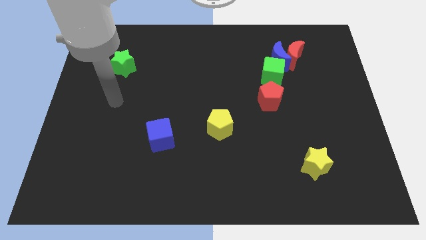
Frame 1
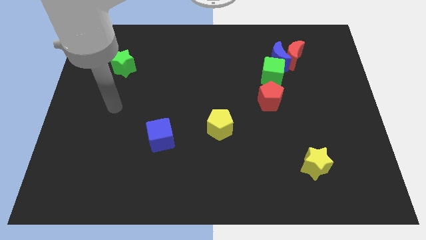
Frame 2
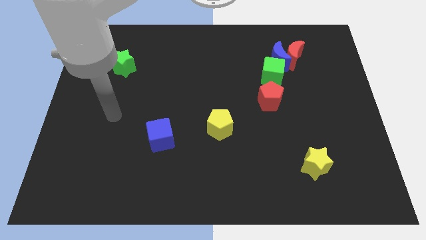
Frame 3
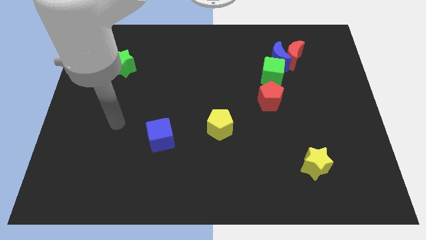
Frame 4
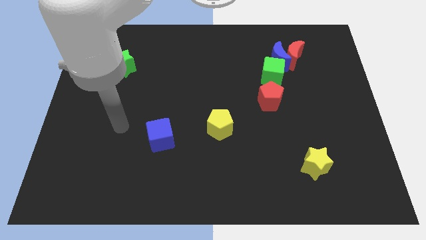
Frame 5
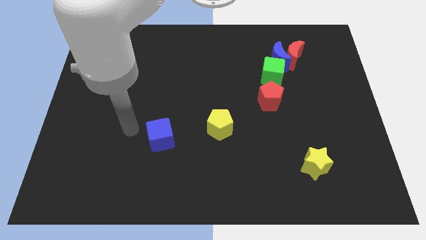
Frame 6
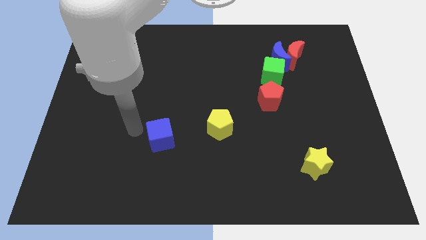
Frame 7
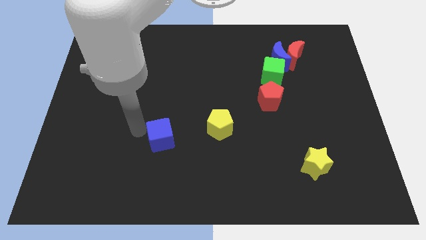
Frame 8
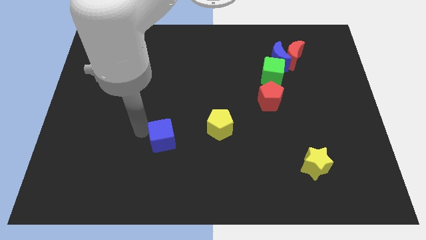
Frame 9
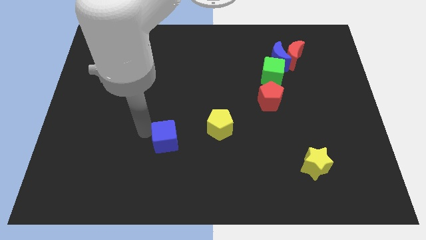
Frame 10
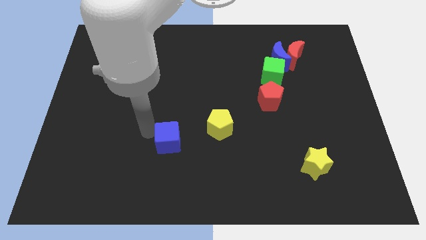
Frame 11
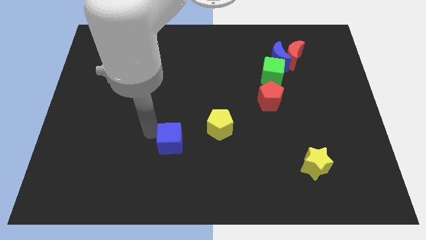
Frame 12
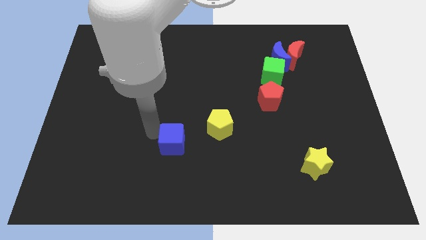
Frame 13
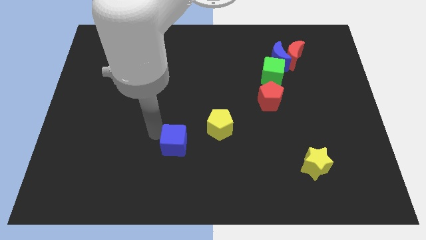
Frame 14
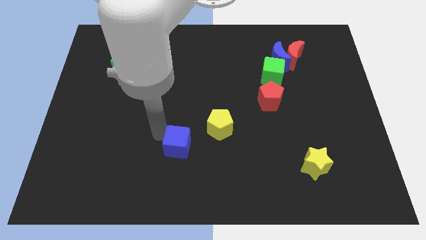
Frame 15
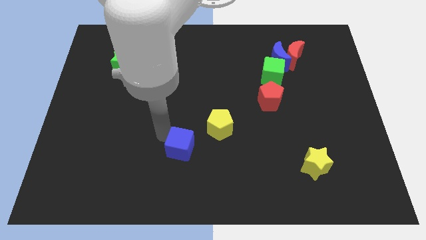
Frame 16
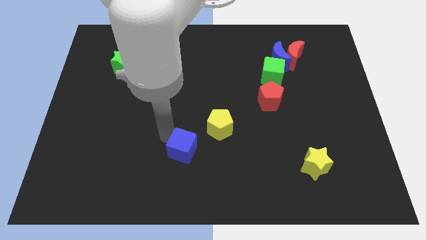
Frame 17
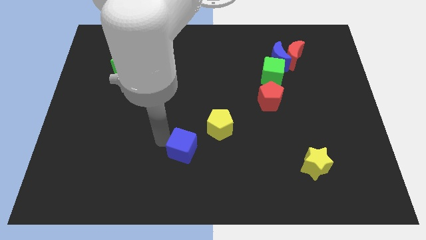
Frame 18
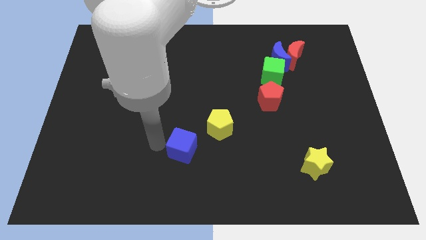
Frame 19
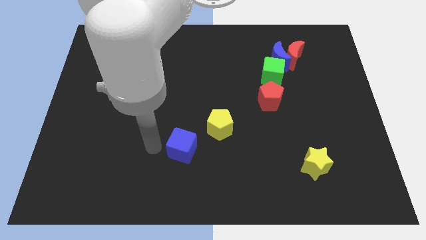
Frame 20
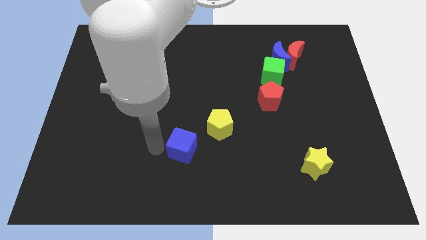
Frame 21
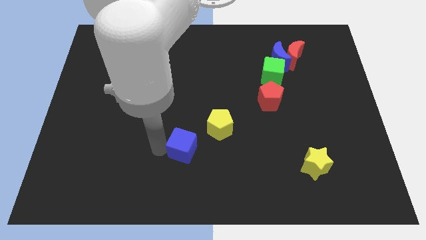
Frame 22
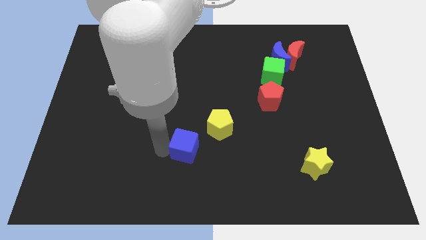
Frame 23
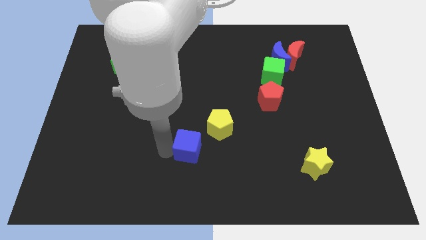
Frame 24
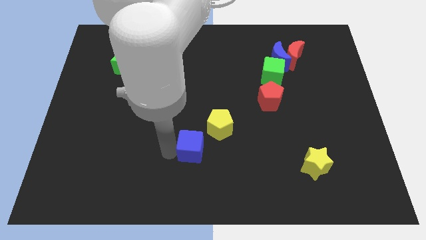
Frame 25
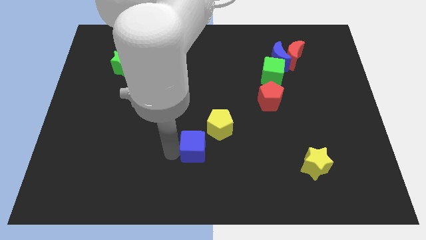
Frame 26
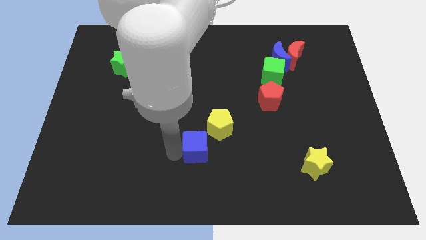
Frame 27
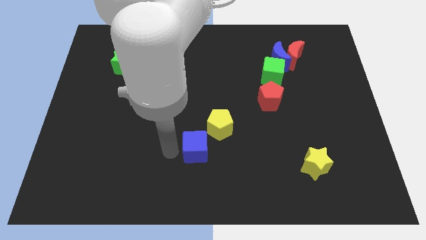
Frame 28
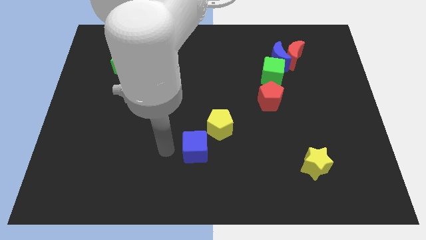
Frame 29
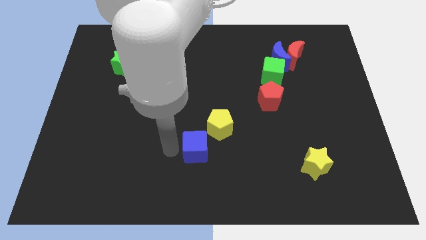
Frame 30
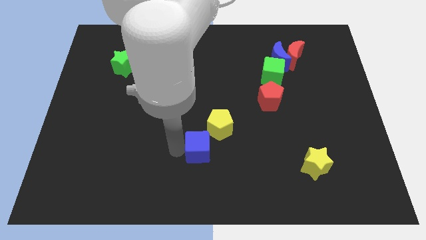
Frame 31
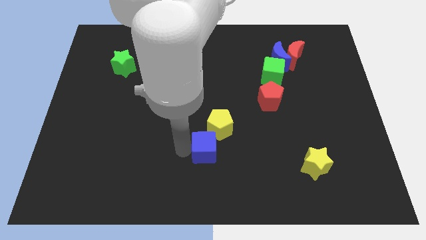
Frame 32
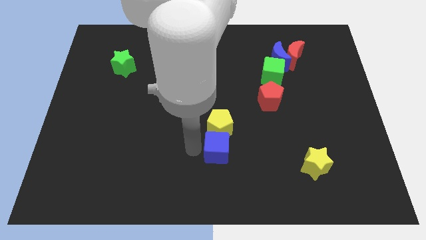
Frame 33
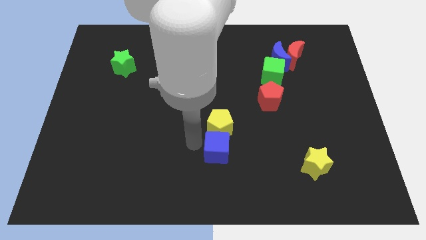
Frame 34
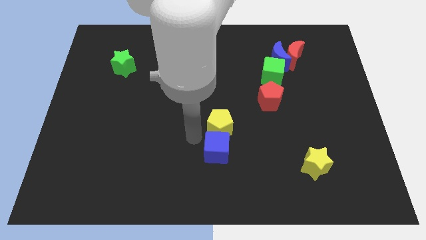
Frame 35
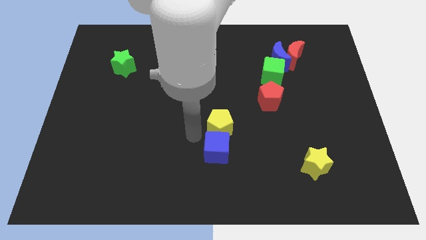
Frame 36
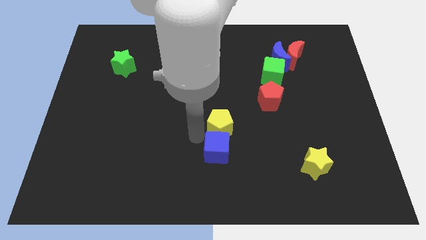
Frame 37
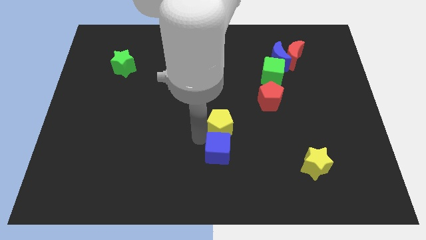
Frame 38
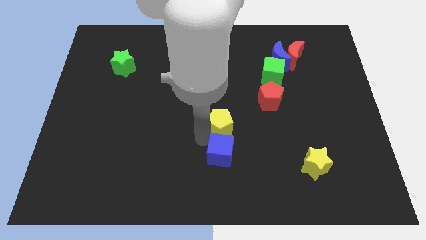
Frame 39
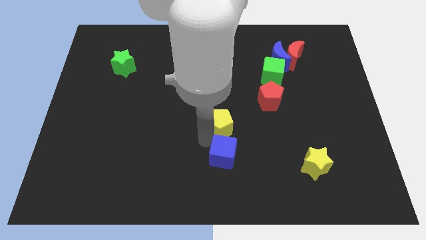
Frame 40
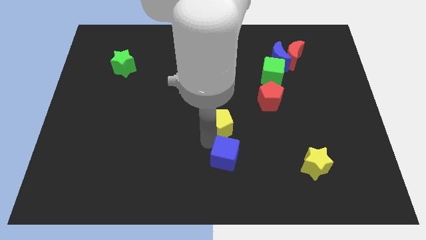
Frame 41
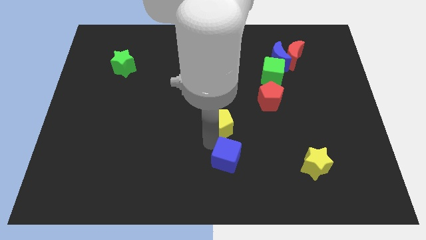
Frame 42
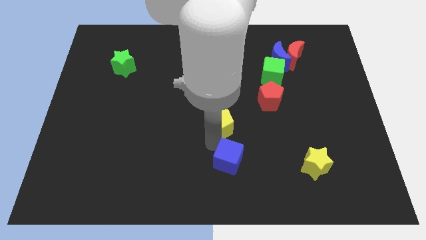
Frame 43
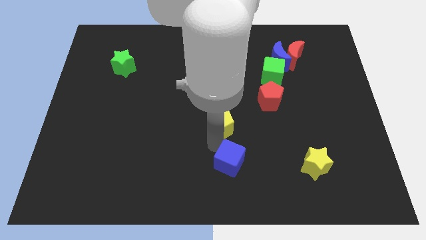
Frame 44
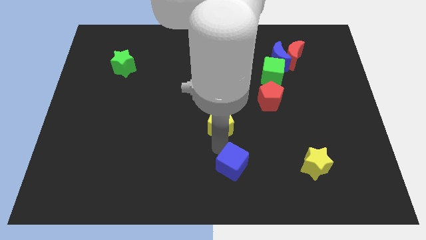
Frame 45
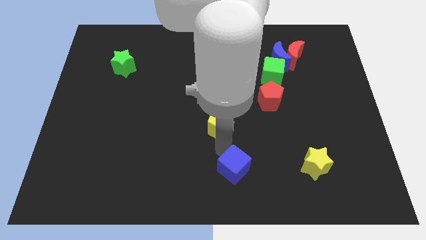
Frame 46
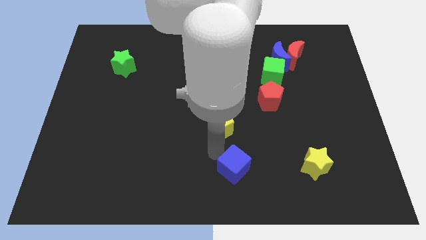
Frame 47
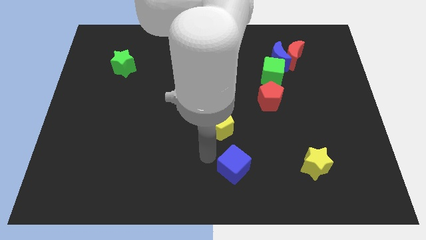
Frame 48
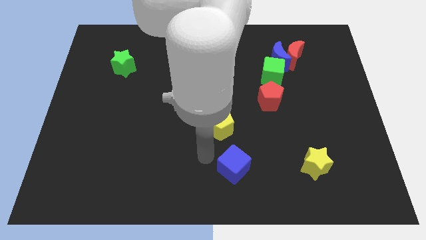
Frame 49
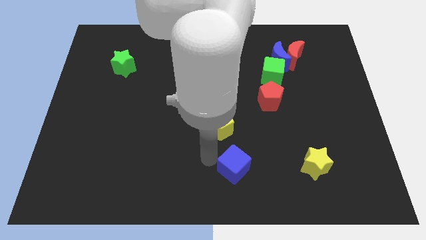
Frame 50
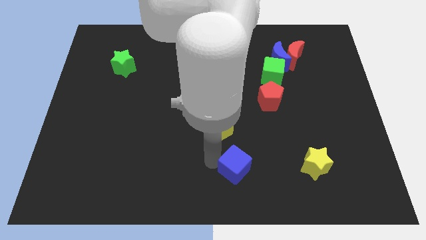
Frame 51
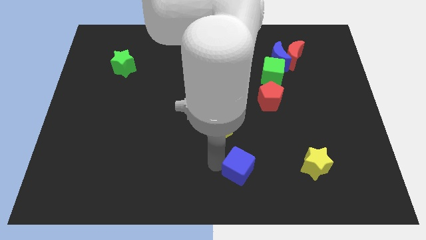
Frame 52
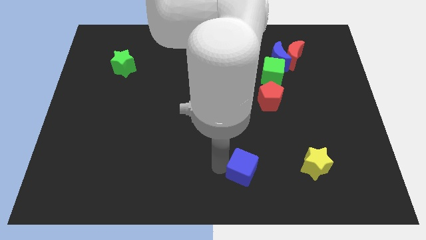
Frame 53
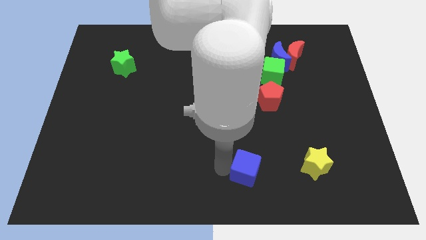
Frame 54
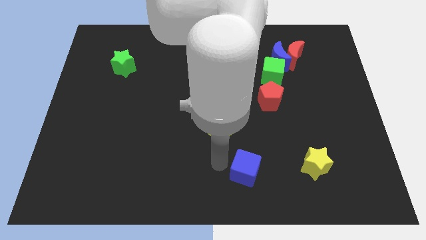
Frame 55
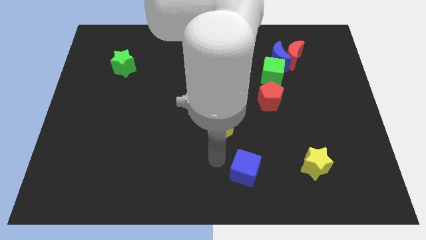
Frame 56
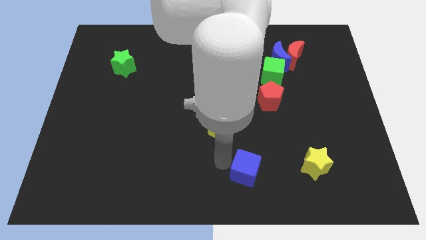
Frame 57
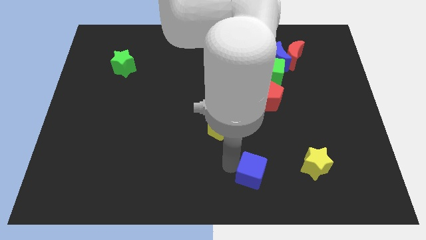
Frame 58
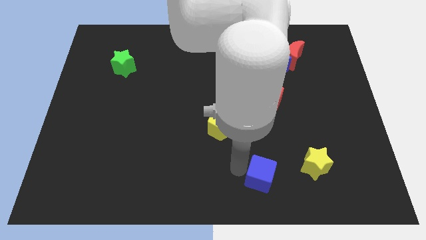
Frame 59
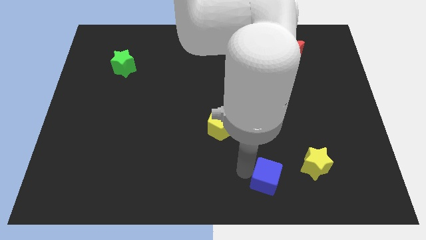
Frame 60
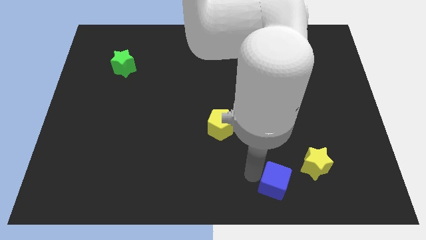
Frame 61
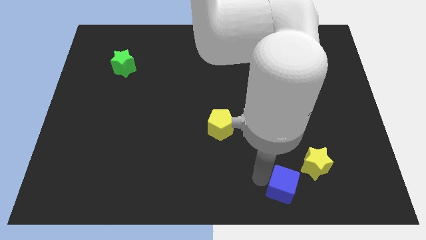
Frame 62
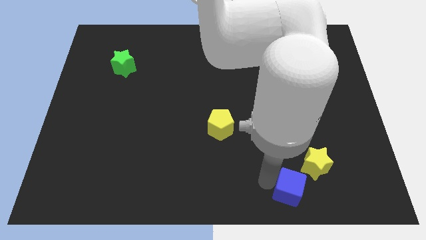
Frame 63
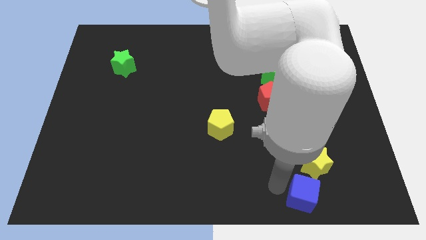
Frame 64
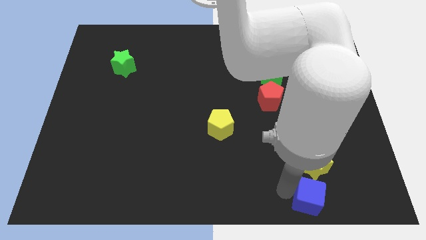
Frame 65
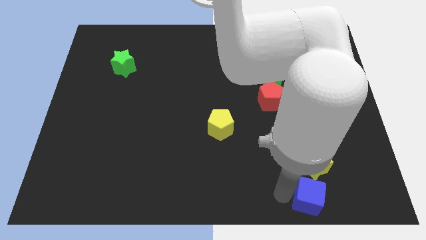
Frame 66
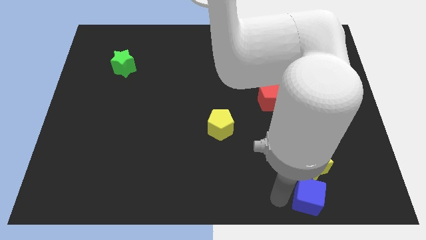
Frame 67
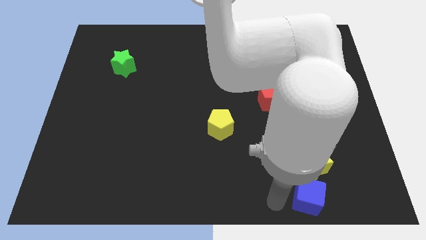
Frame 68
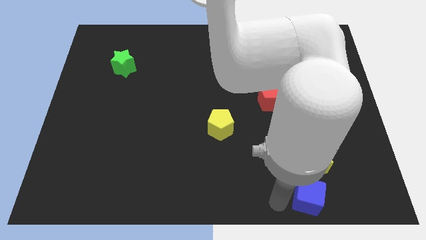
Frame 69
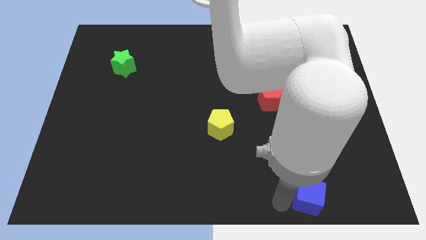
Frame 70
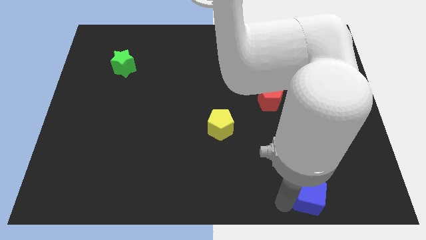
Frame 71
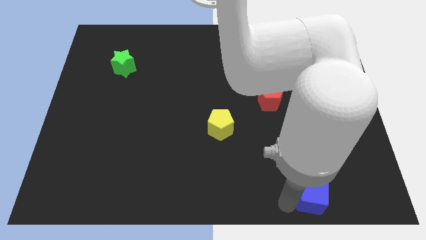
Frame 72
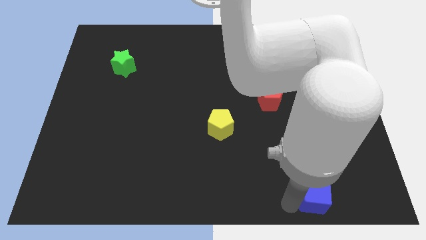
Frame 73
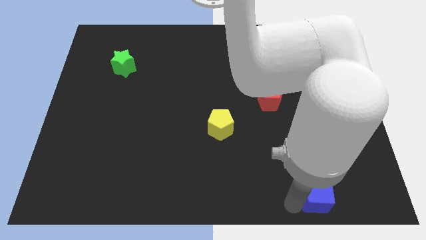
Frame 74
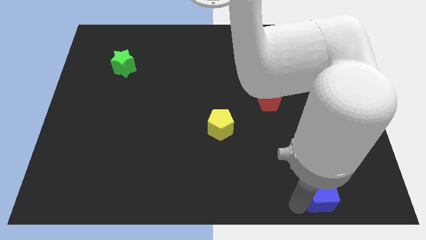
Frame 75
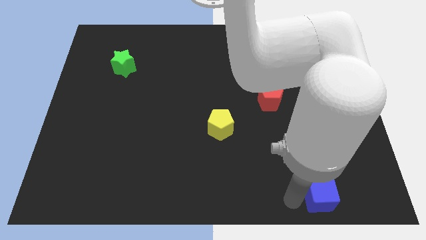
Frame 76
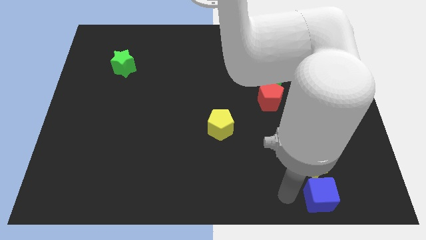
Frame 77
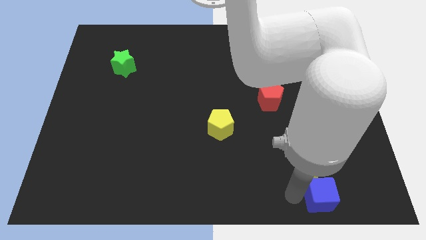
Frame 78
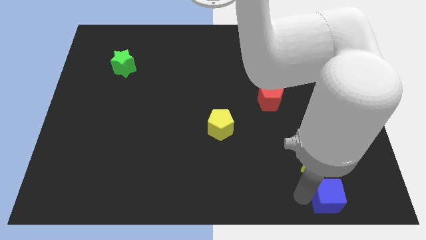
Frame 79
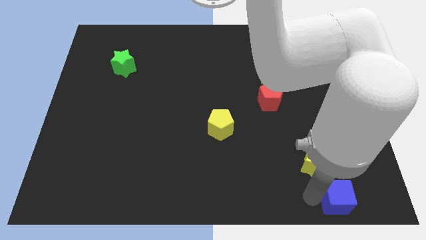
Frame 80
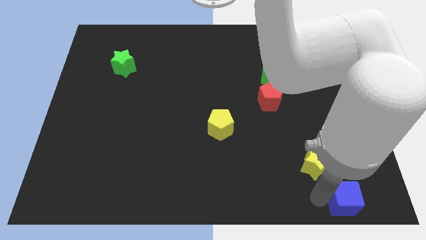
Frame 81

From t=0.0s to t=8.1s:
slide the blue cube to the lower right corner
